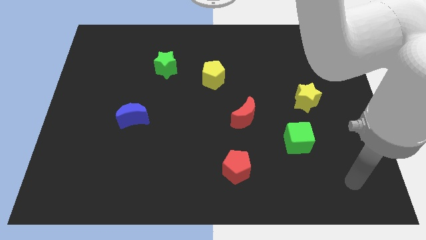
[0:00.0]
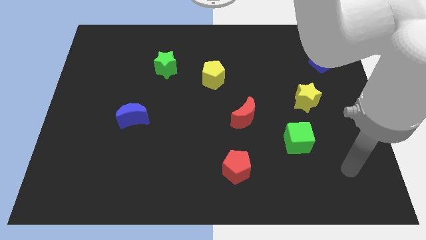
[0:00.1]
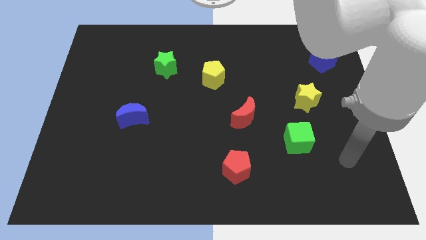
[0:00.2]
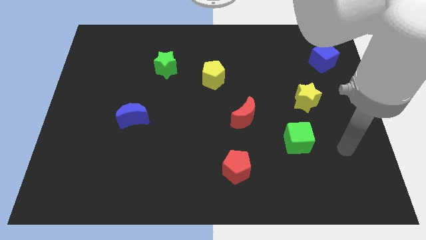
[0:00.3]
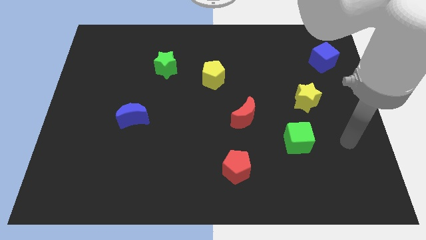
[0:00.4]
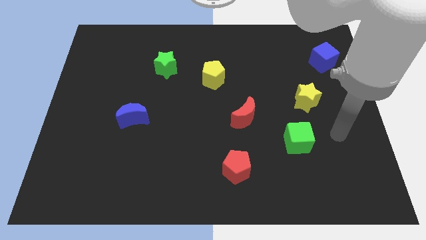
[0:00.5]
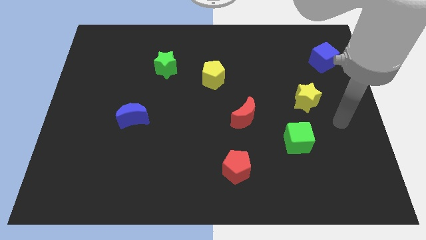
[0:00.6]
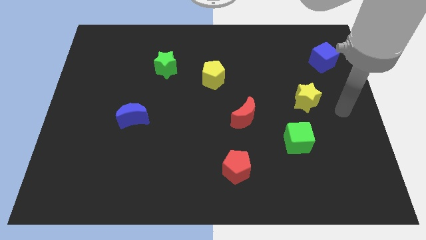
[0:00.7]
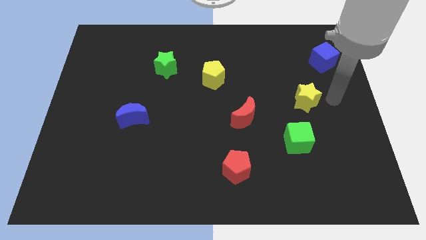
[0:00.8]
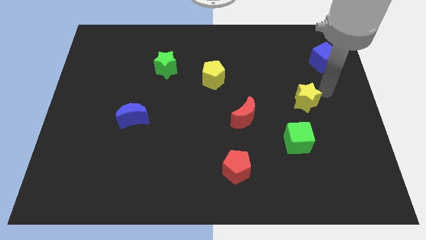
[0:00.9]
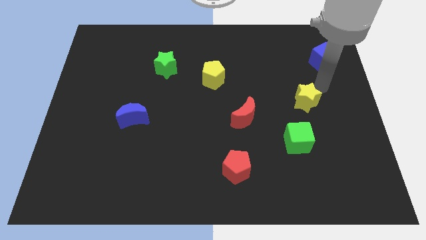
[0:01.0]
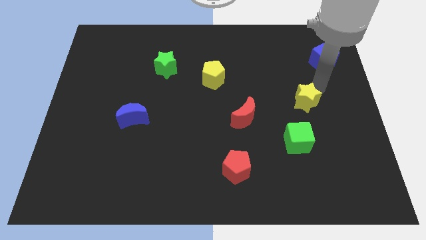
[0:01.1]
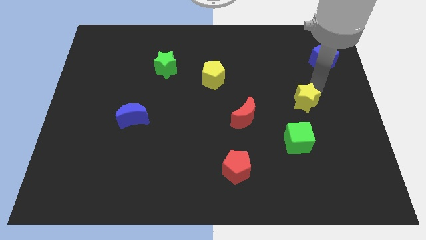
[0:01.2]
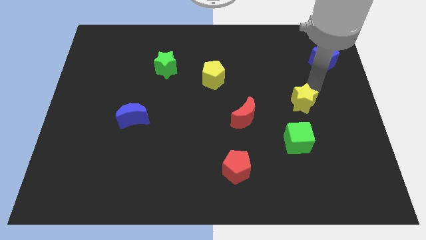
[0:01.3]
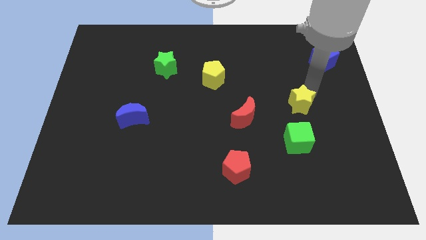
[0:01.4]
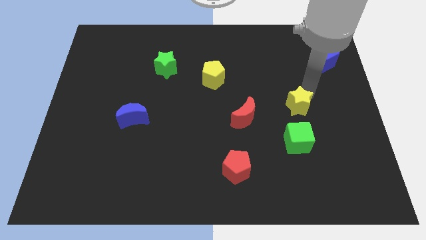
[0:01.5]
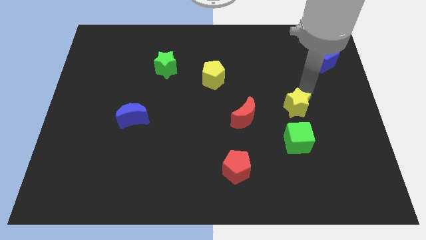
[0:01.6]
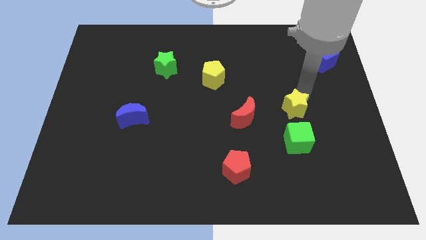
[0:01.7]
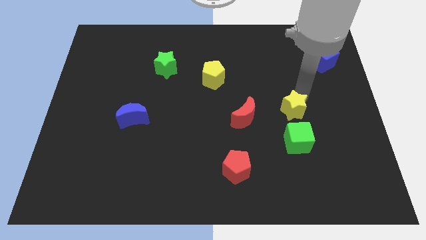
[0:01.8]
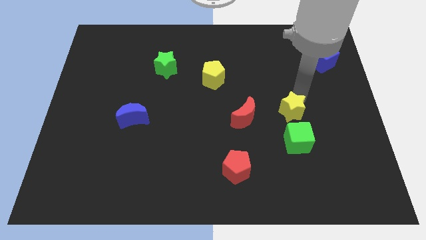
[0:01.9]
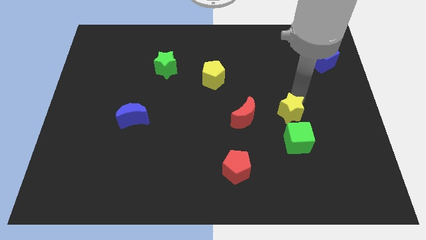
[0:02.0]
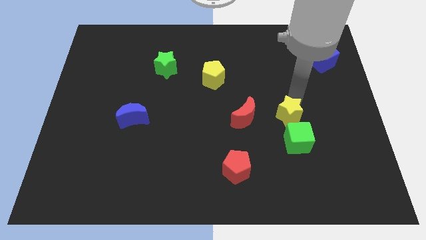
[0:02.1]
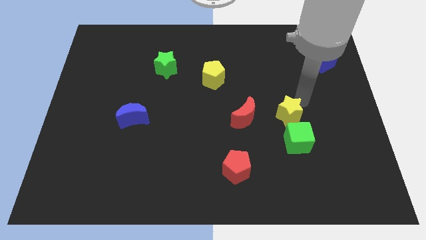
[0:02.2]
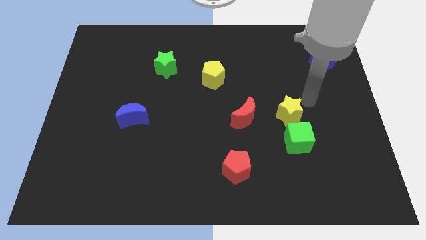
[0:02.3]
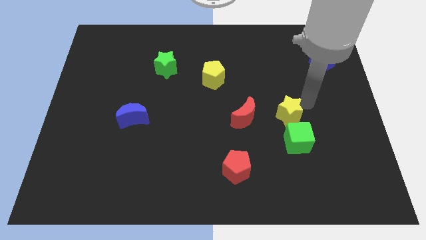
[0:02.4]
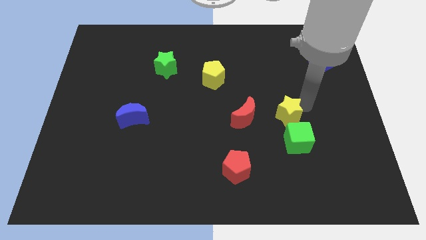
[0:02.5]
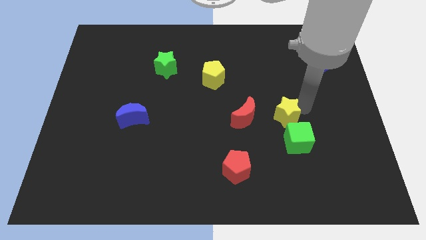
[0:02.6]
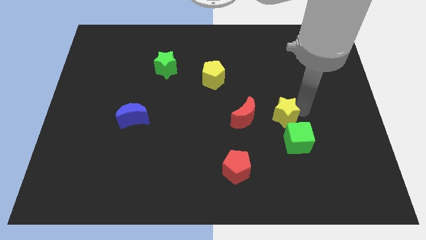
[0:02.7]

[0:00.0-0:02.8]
push the yellow star slightly downwards and left

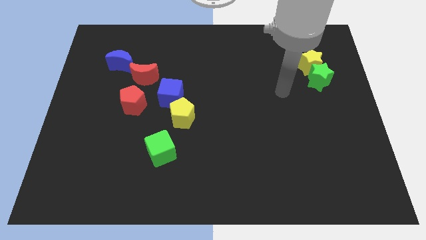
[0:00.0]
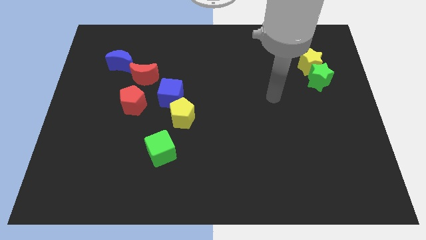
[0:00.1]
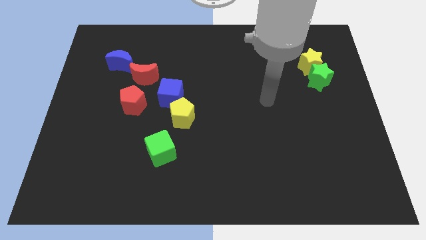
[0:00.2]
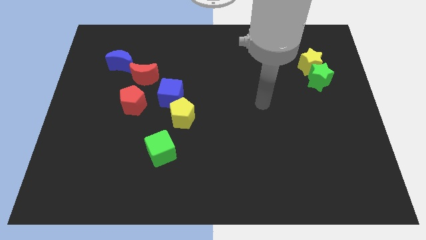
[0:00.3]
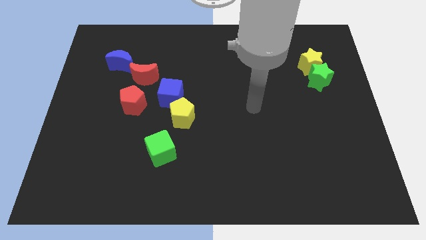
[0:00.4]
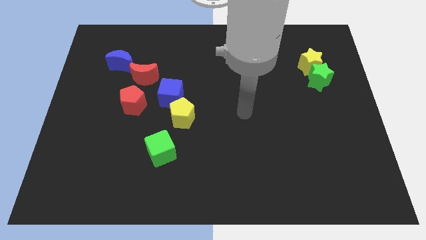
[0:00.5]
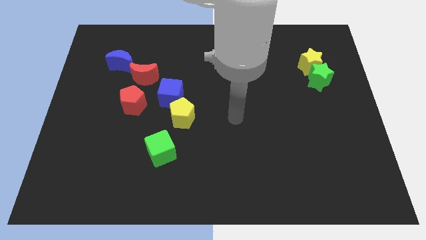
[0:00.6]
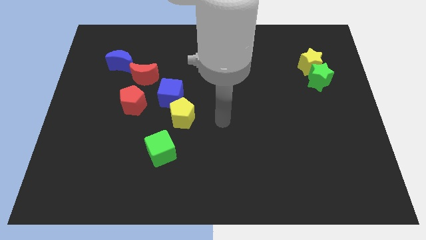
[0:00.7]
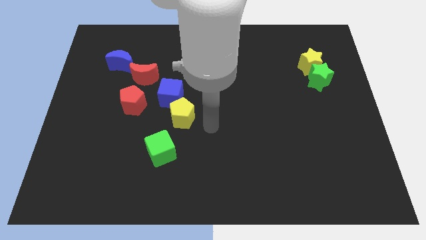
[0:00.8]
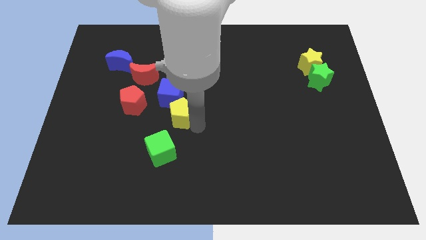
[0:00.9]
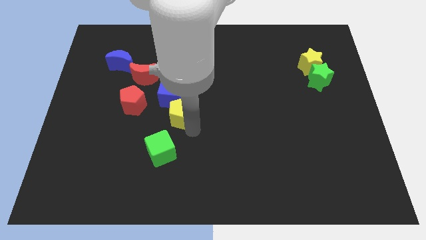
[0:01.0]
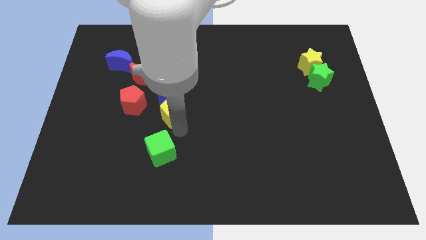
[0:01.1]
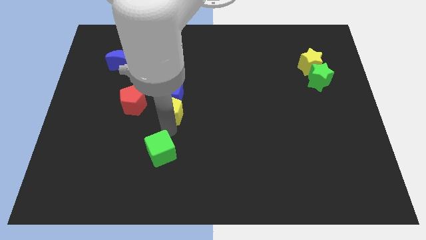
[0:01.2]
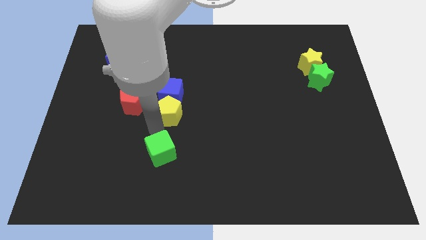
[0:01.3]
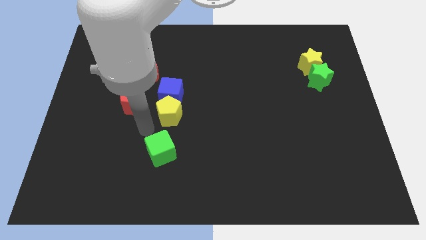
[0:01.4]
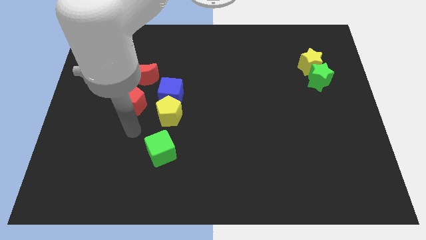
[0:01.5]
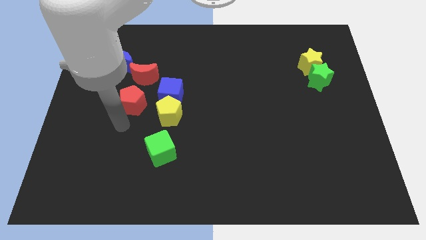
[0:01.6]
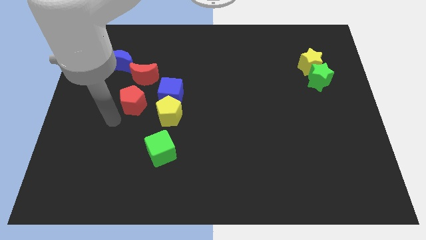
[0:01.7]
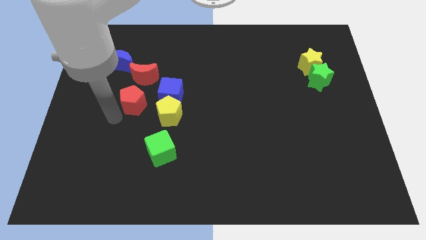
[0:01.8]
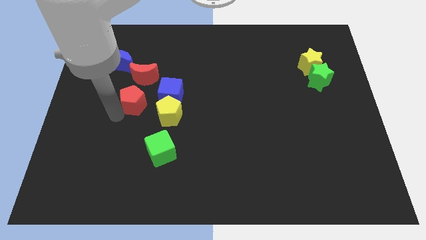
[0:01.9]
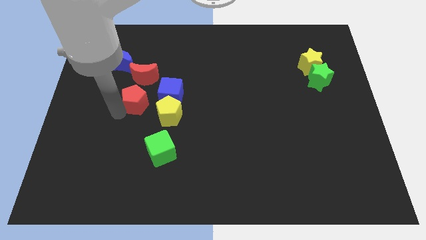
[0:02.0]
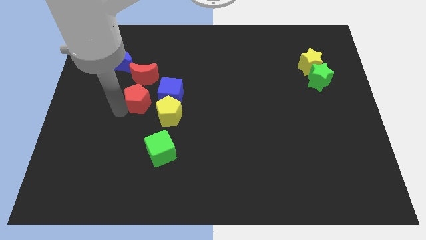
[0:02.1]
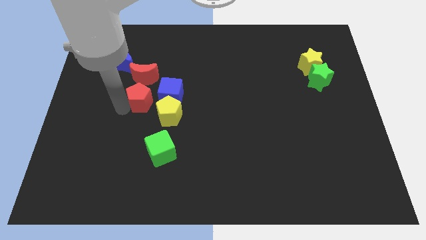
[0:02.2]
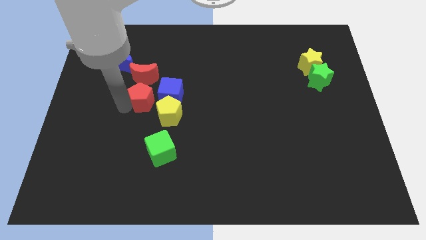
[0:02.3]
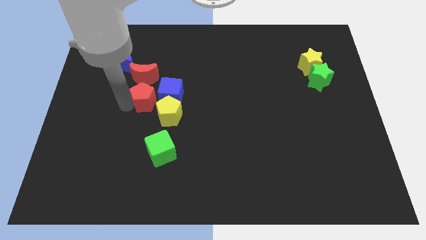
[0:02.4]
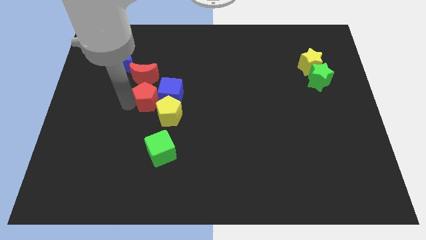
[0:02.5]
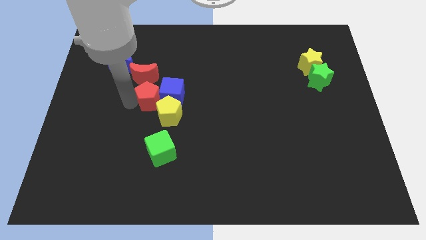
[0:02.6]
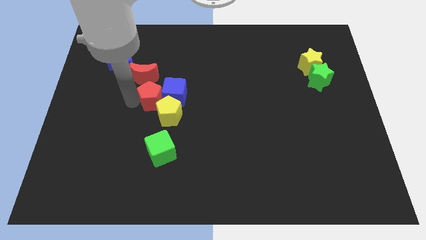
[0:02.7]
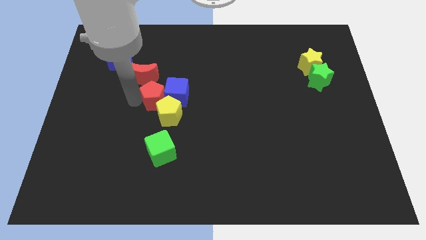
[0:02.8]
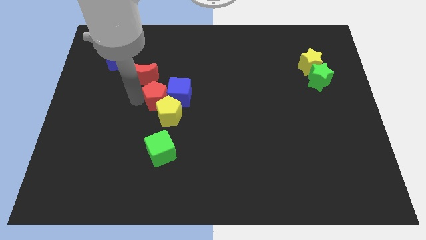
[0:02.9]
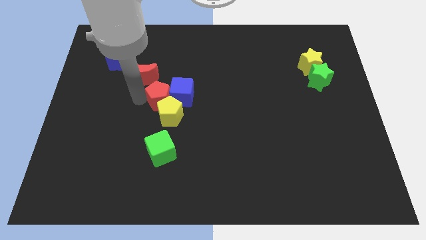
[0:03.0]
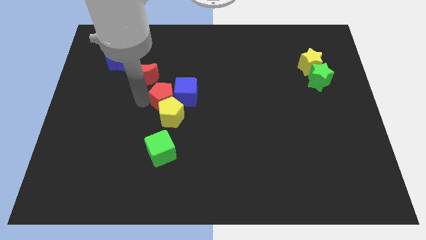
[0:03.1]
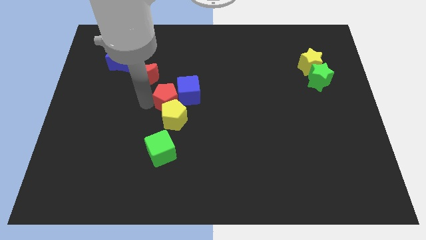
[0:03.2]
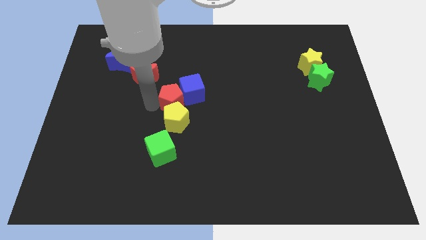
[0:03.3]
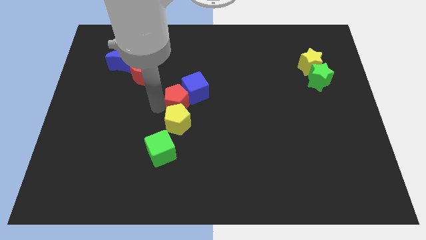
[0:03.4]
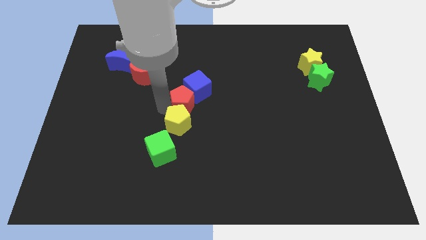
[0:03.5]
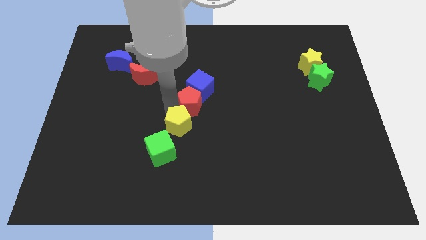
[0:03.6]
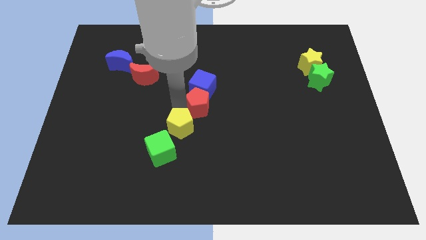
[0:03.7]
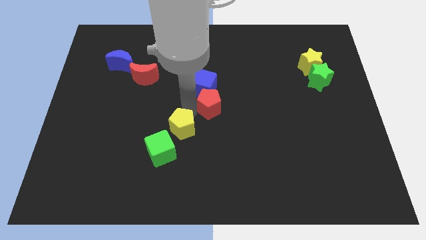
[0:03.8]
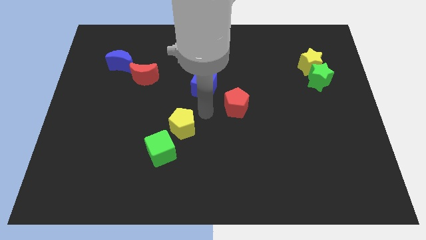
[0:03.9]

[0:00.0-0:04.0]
slide the red pentagon to the right

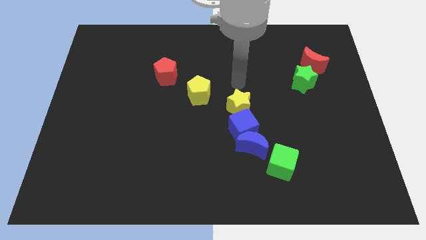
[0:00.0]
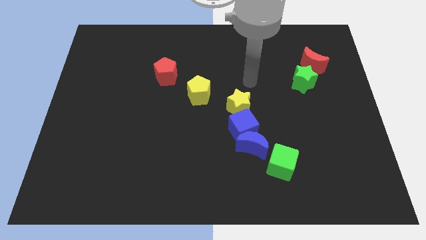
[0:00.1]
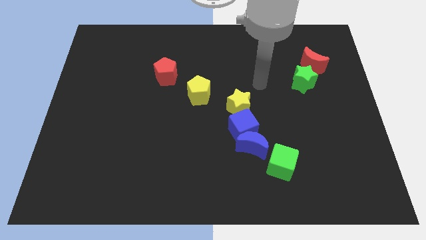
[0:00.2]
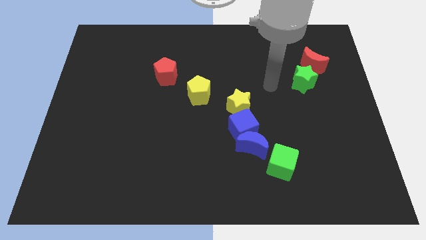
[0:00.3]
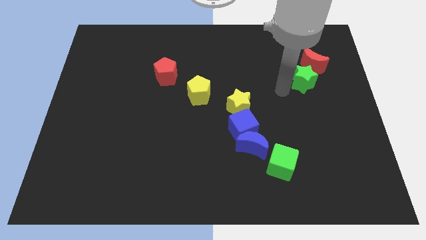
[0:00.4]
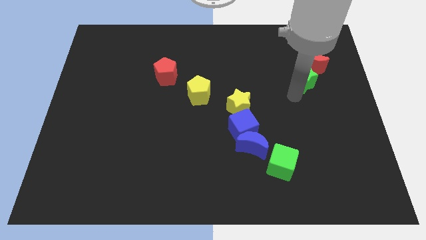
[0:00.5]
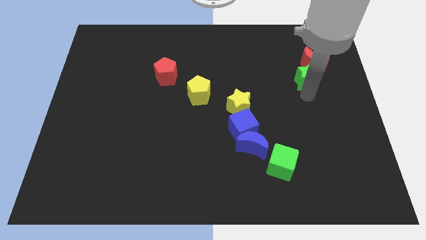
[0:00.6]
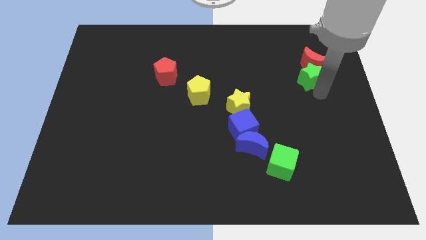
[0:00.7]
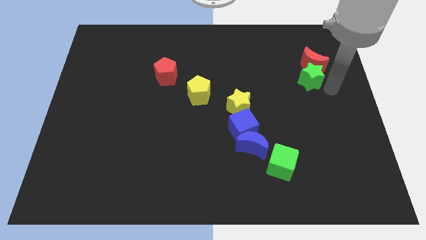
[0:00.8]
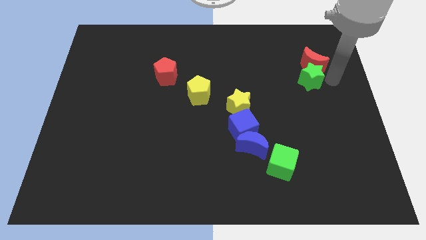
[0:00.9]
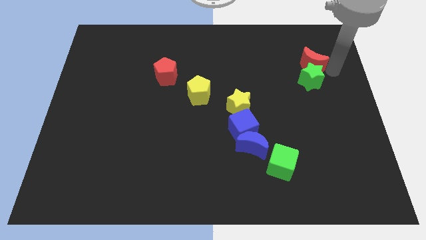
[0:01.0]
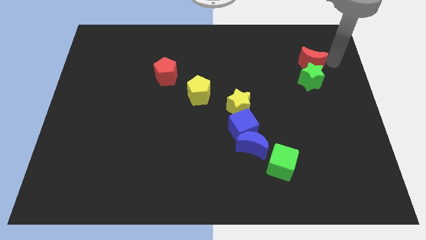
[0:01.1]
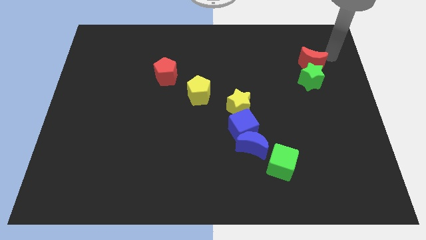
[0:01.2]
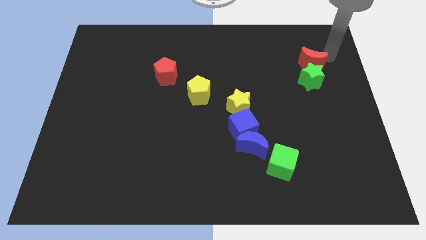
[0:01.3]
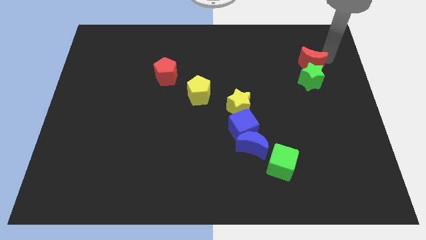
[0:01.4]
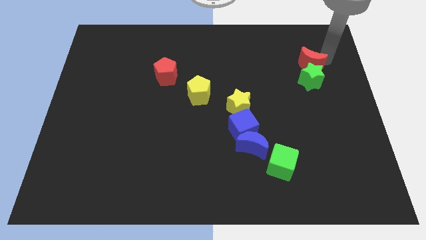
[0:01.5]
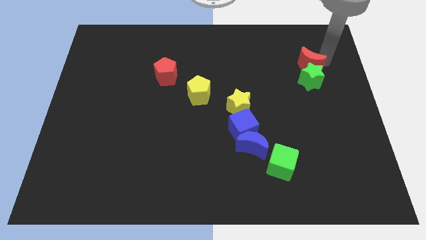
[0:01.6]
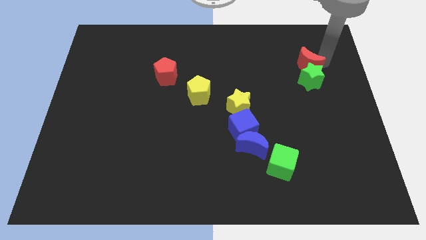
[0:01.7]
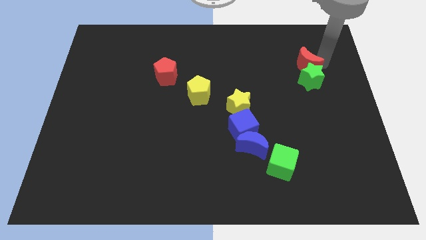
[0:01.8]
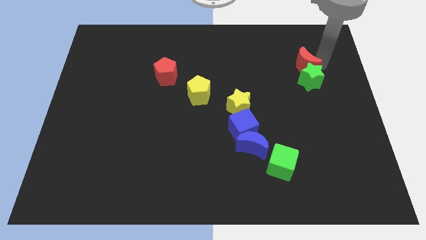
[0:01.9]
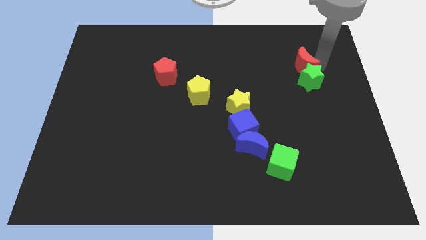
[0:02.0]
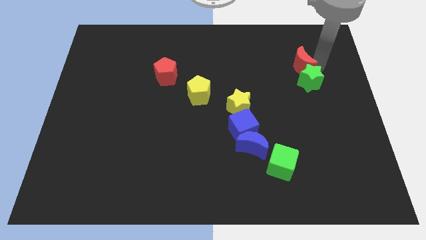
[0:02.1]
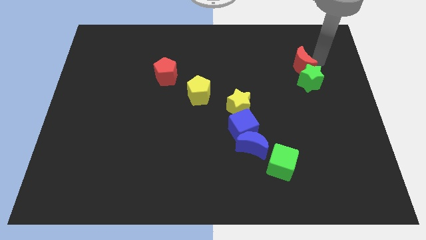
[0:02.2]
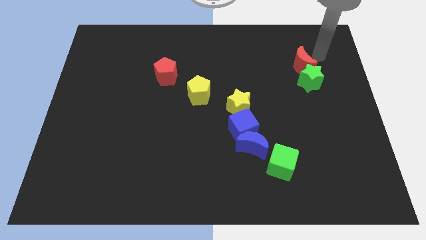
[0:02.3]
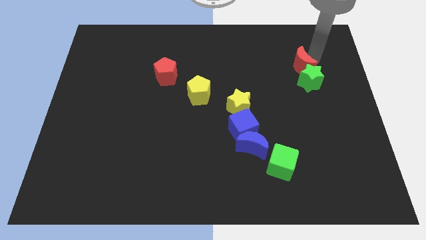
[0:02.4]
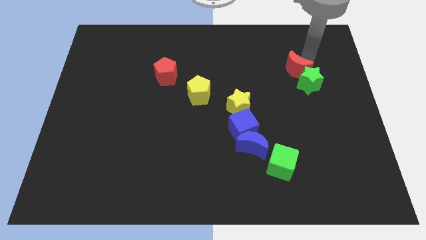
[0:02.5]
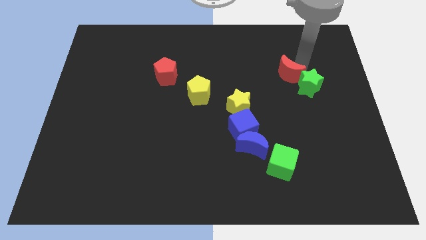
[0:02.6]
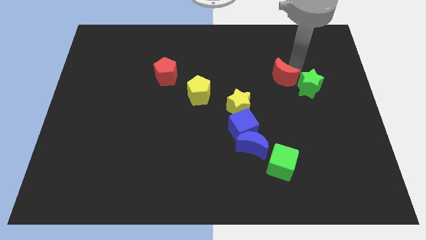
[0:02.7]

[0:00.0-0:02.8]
slide the red moon down and left a little bit
